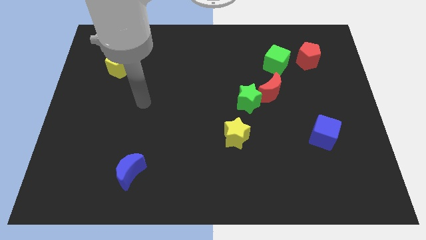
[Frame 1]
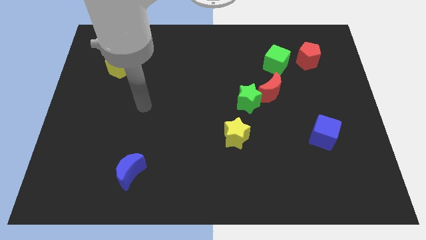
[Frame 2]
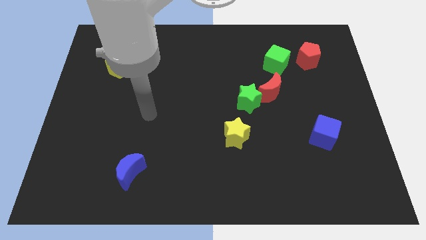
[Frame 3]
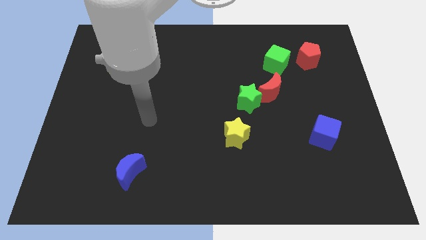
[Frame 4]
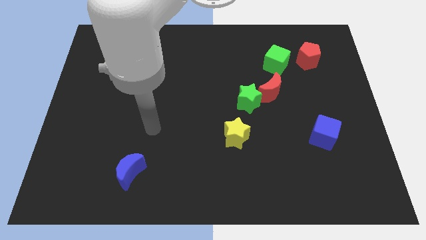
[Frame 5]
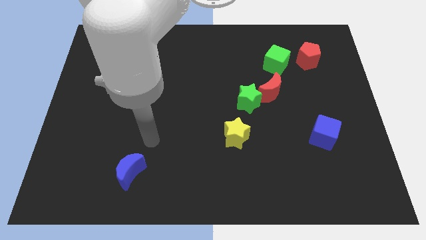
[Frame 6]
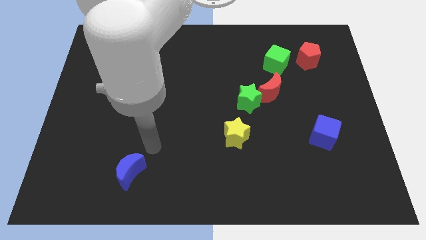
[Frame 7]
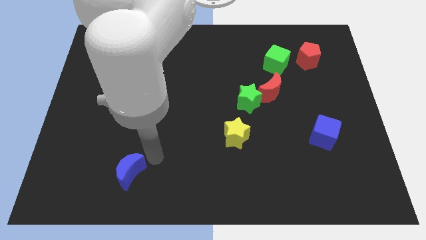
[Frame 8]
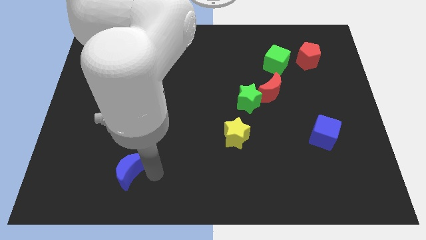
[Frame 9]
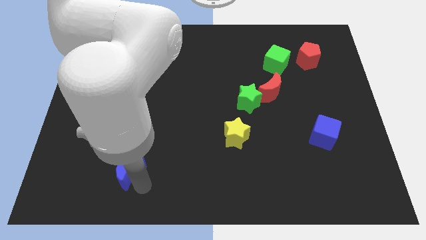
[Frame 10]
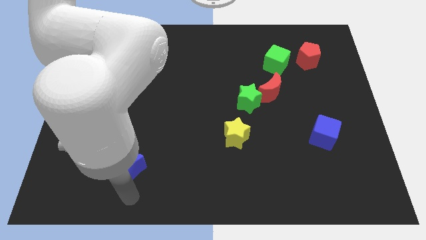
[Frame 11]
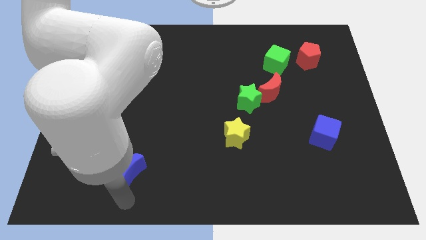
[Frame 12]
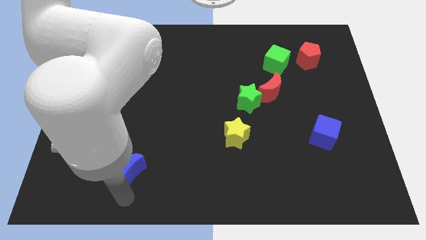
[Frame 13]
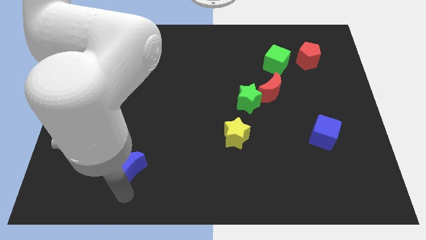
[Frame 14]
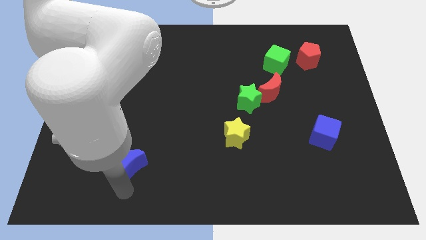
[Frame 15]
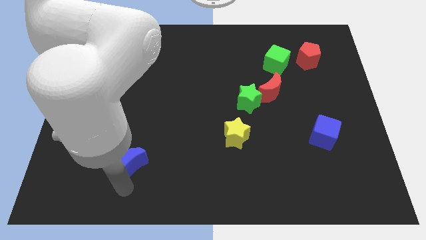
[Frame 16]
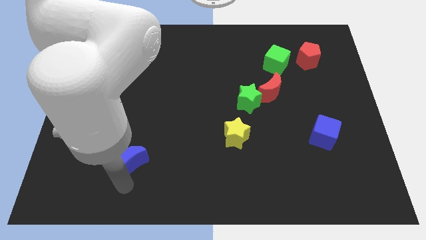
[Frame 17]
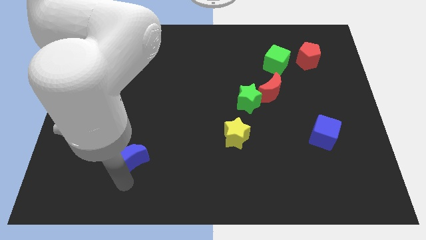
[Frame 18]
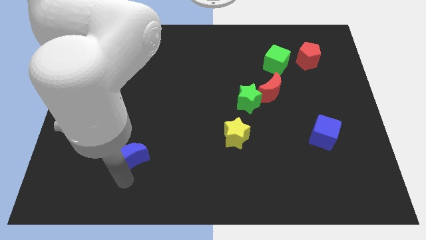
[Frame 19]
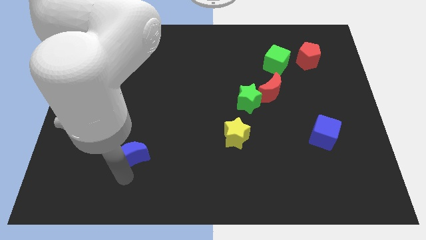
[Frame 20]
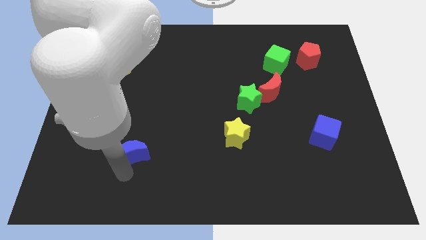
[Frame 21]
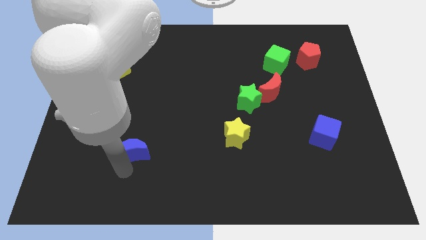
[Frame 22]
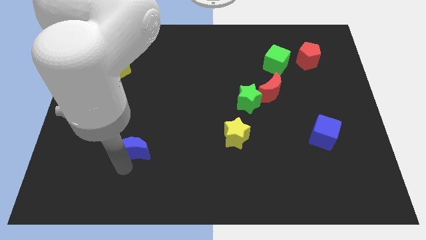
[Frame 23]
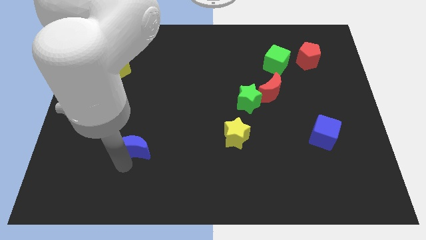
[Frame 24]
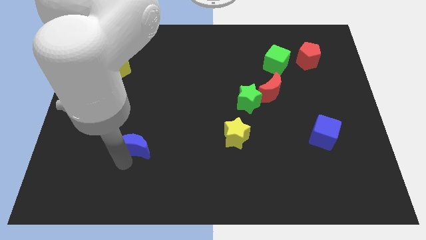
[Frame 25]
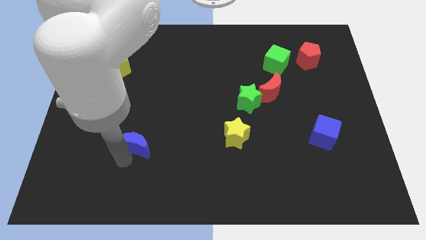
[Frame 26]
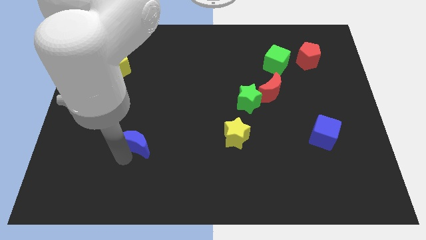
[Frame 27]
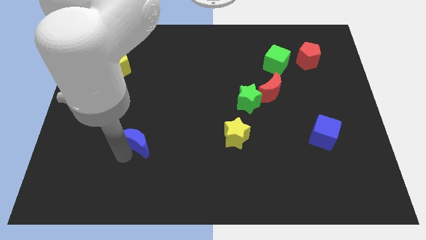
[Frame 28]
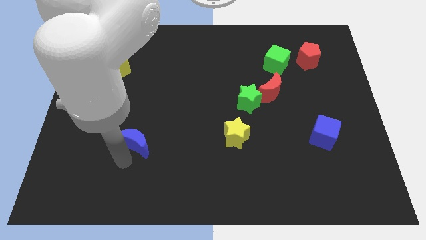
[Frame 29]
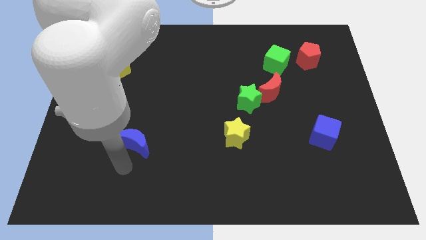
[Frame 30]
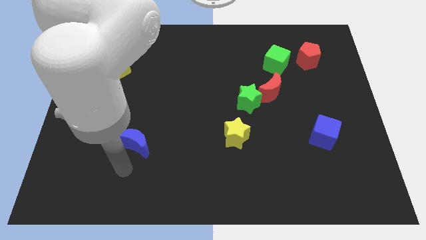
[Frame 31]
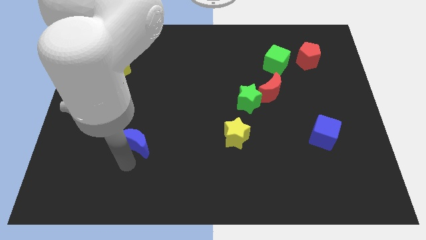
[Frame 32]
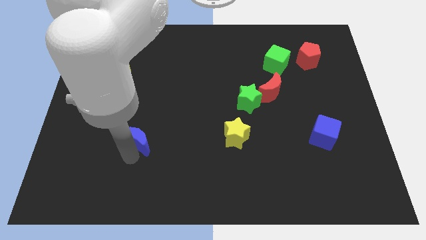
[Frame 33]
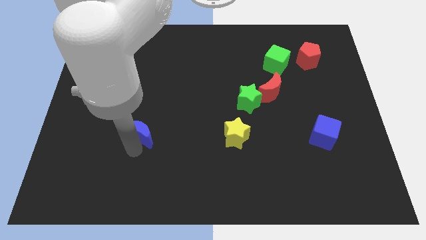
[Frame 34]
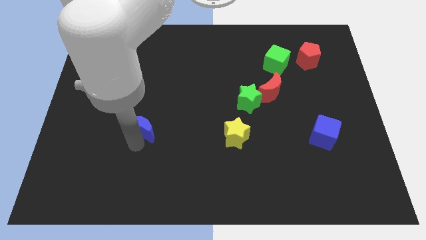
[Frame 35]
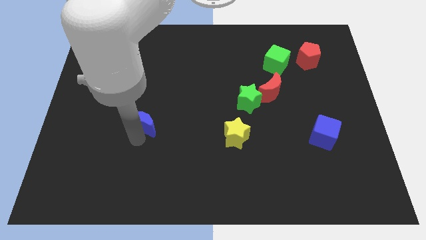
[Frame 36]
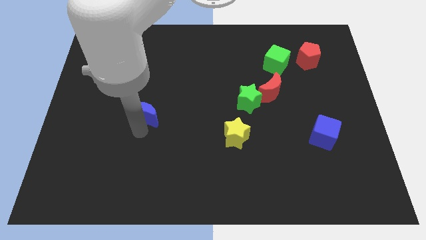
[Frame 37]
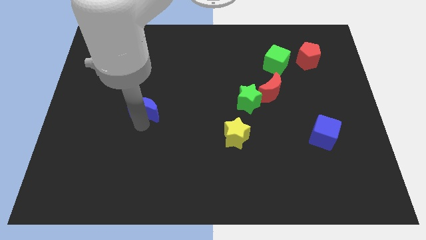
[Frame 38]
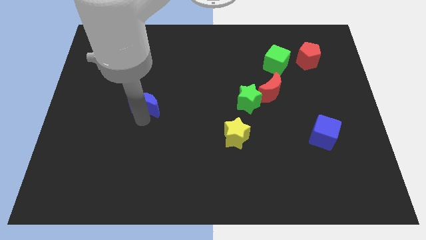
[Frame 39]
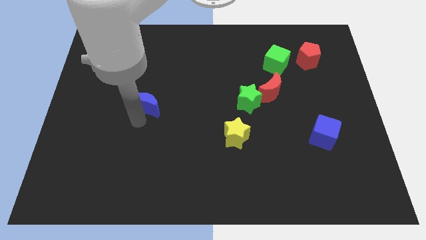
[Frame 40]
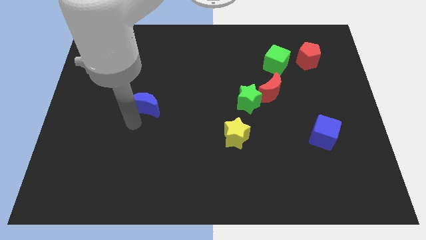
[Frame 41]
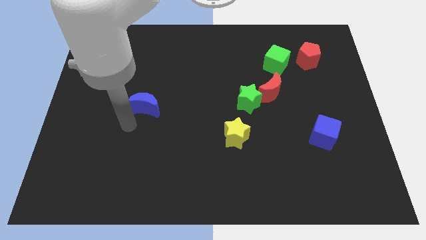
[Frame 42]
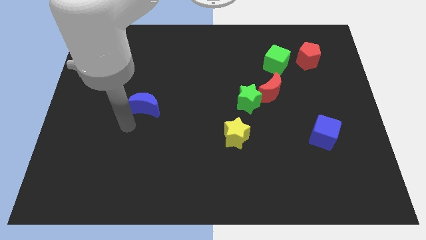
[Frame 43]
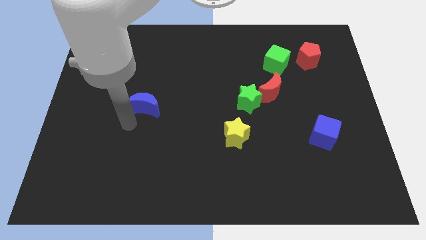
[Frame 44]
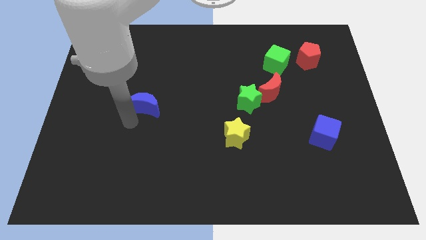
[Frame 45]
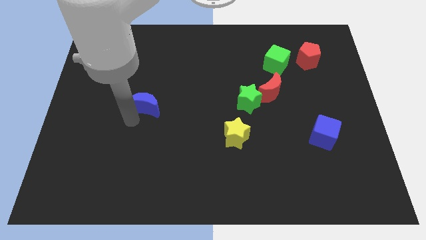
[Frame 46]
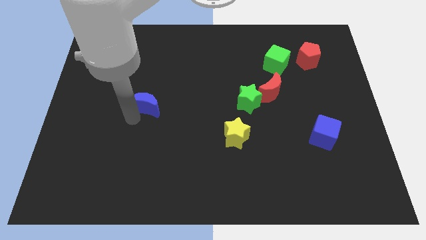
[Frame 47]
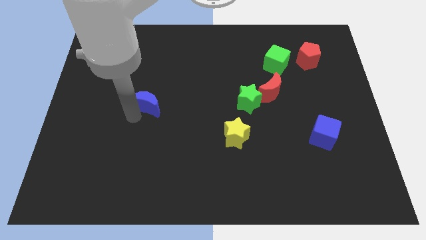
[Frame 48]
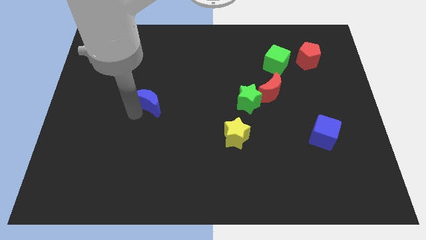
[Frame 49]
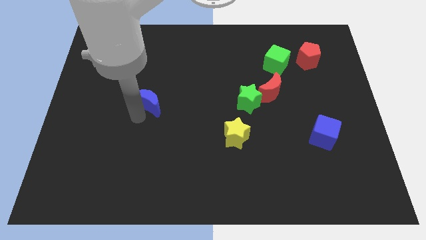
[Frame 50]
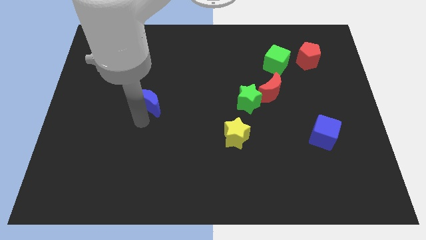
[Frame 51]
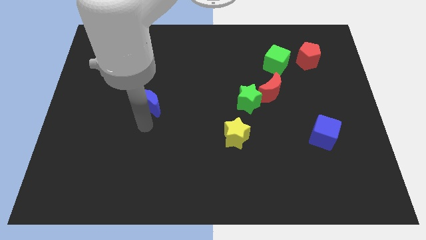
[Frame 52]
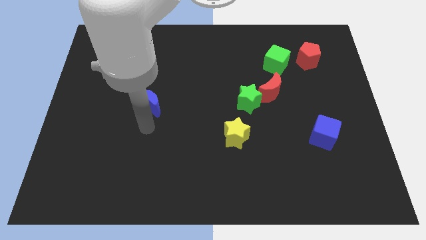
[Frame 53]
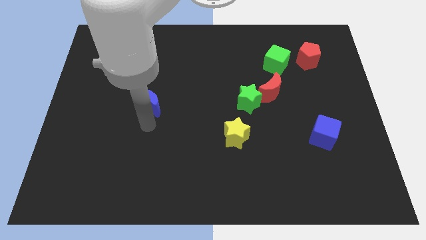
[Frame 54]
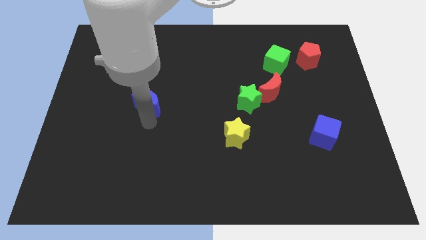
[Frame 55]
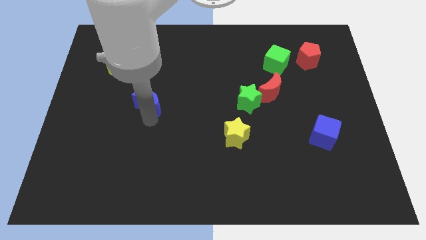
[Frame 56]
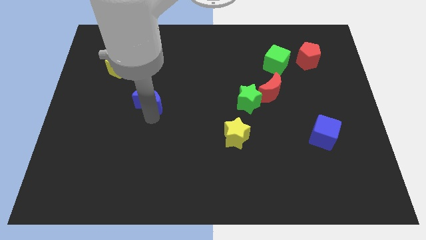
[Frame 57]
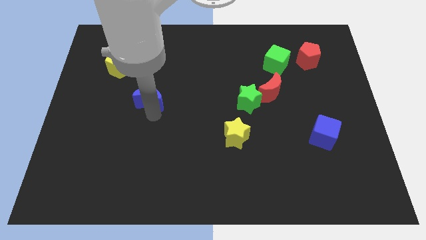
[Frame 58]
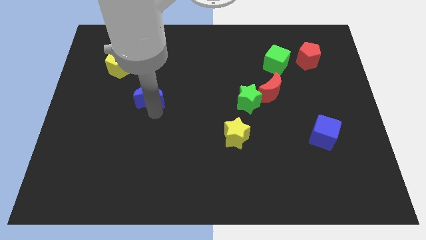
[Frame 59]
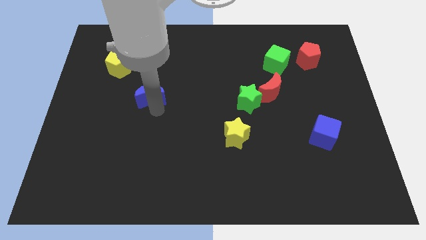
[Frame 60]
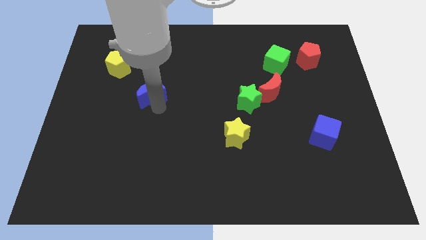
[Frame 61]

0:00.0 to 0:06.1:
move the blue moon up

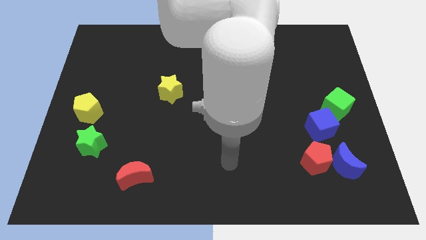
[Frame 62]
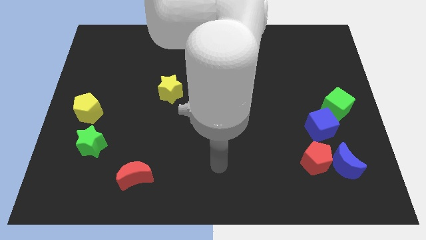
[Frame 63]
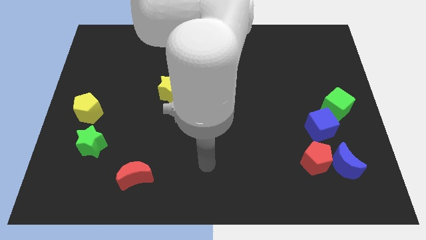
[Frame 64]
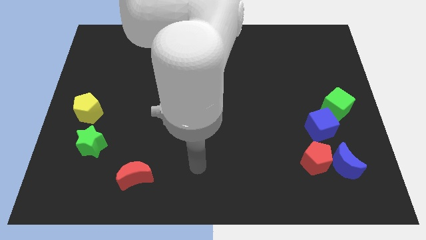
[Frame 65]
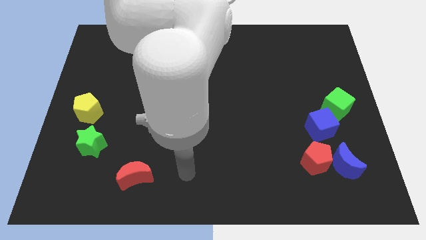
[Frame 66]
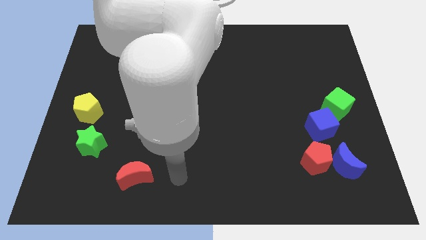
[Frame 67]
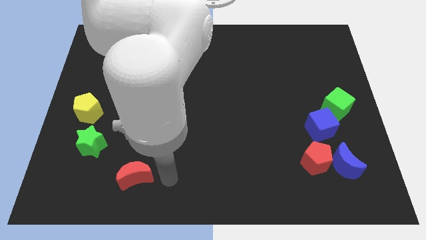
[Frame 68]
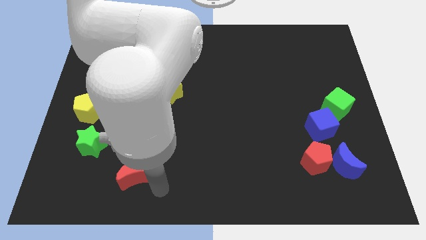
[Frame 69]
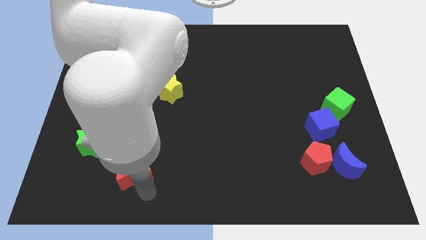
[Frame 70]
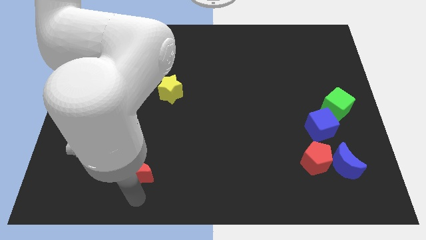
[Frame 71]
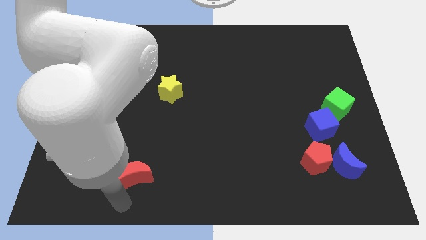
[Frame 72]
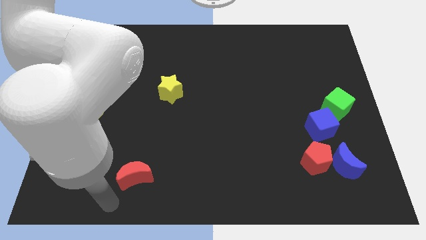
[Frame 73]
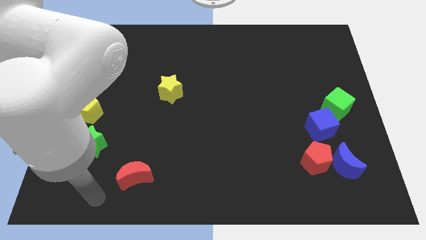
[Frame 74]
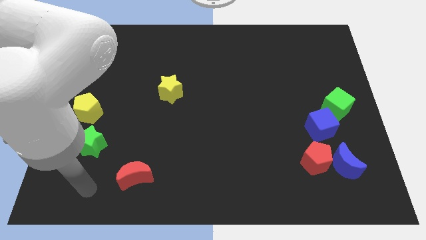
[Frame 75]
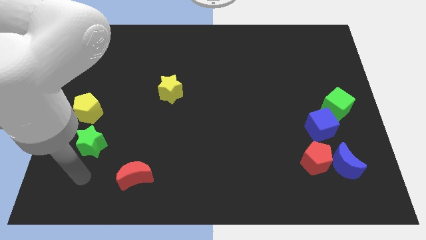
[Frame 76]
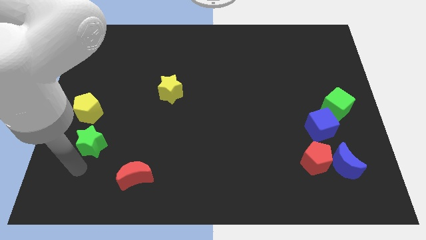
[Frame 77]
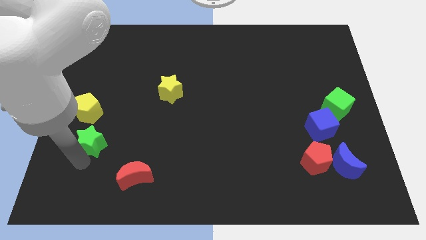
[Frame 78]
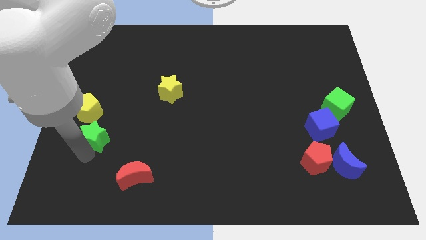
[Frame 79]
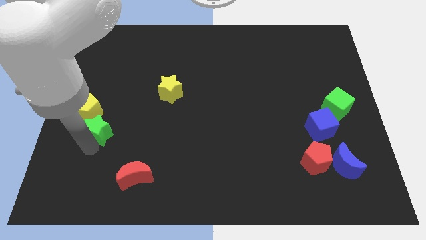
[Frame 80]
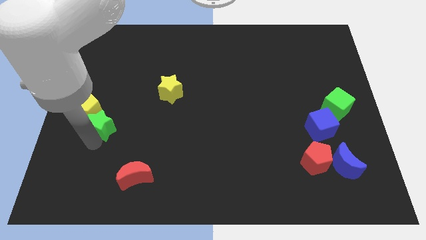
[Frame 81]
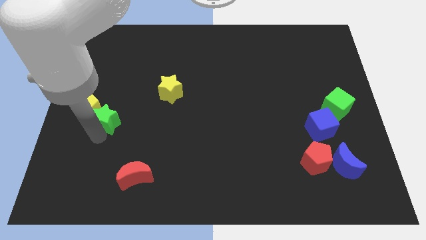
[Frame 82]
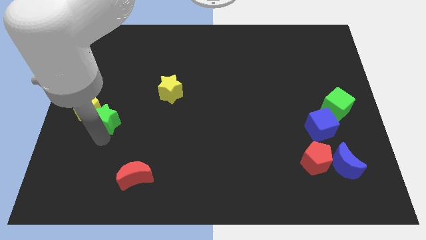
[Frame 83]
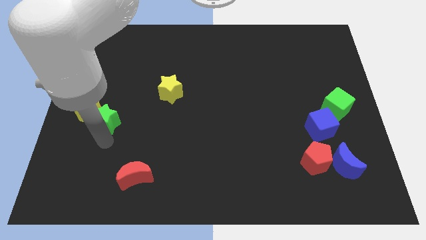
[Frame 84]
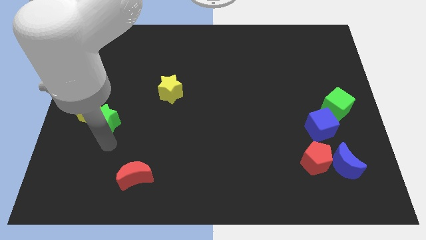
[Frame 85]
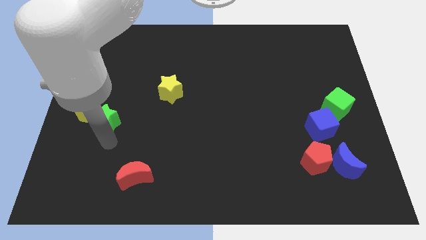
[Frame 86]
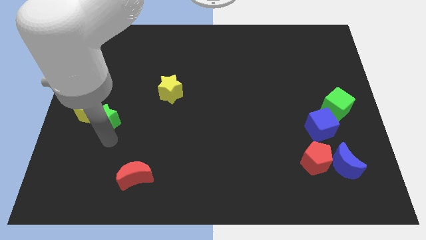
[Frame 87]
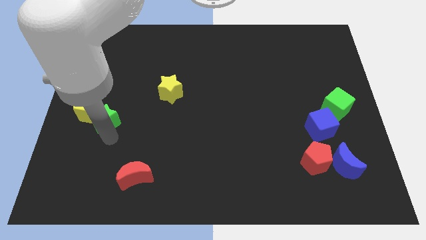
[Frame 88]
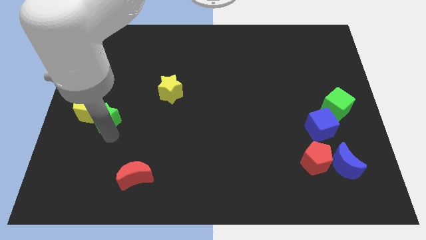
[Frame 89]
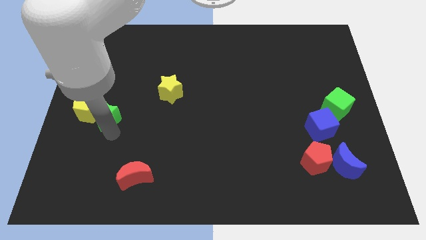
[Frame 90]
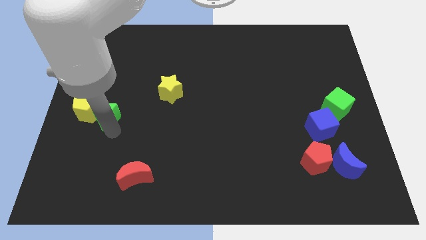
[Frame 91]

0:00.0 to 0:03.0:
slightly push the green star upwards
